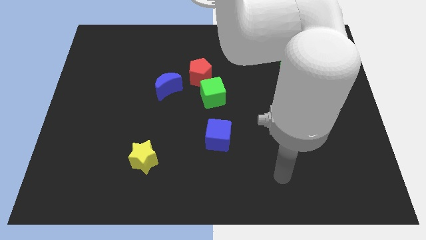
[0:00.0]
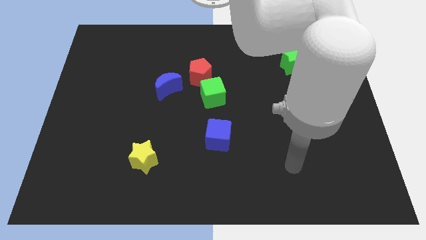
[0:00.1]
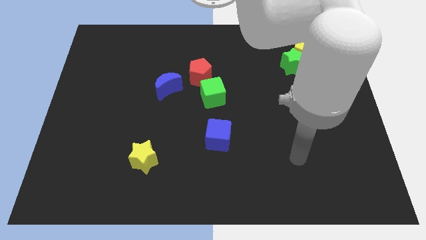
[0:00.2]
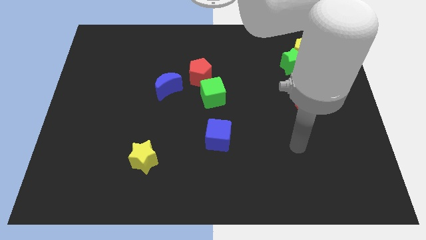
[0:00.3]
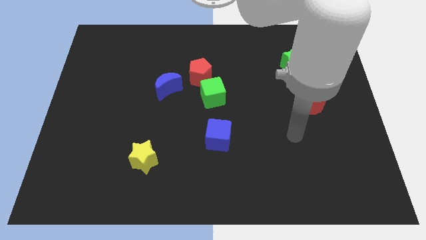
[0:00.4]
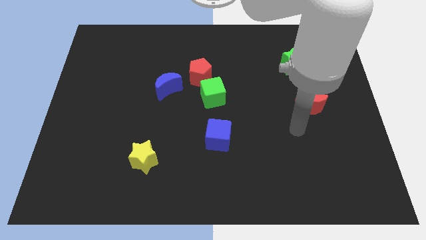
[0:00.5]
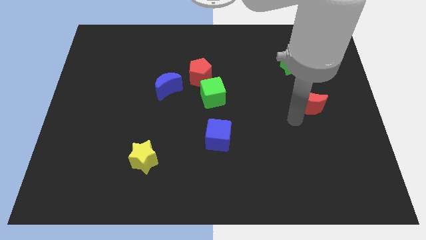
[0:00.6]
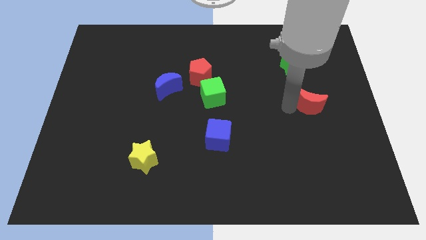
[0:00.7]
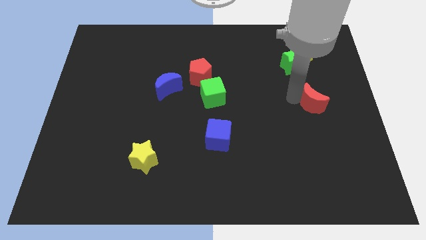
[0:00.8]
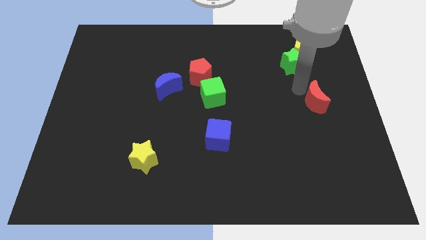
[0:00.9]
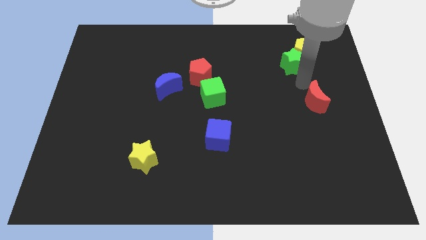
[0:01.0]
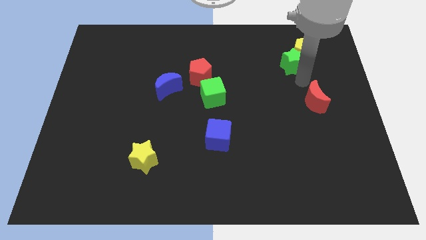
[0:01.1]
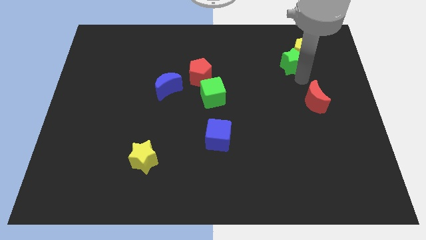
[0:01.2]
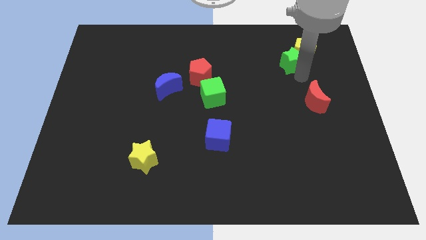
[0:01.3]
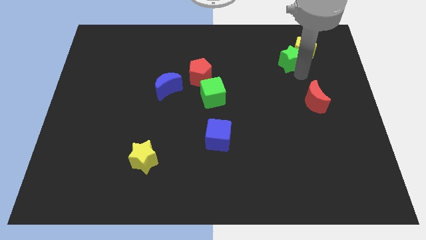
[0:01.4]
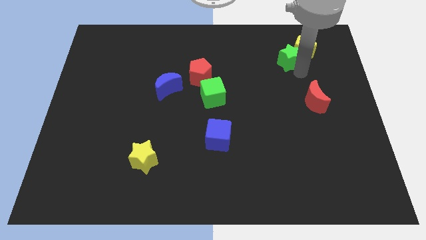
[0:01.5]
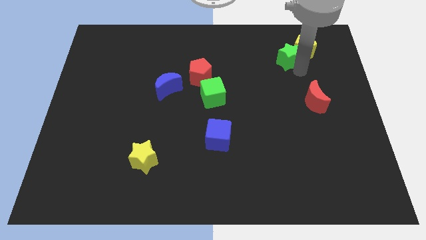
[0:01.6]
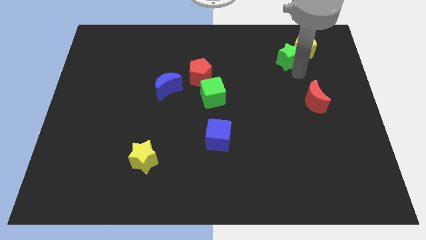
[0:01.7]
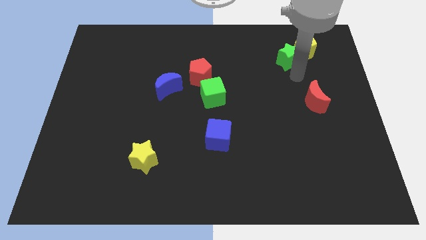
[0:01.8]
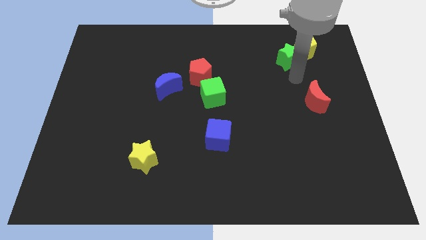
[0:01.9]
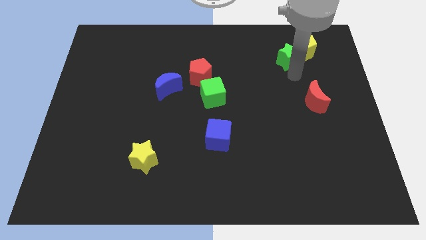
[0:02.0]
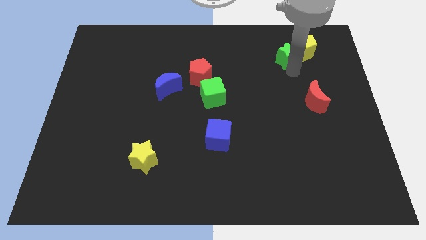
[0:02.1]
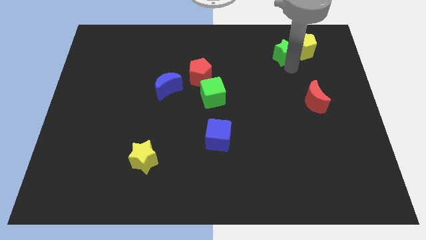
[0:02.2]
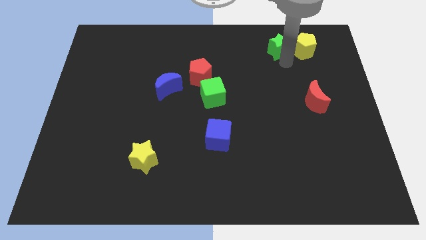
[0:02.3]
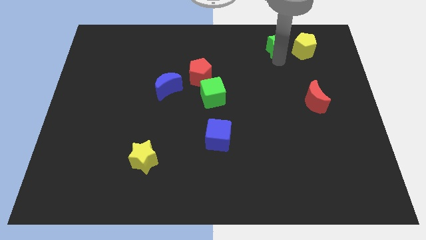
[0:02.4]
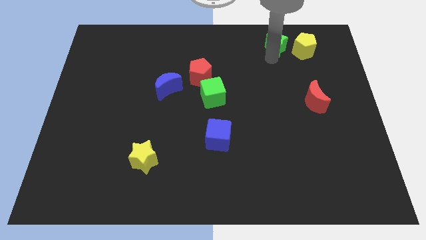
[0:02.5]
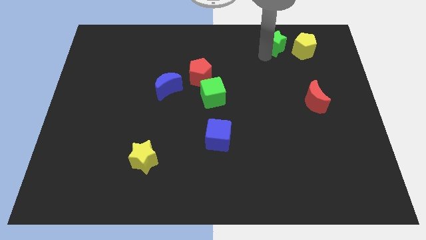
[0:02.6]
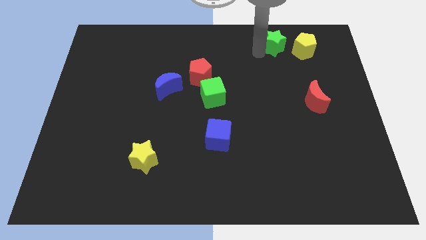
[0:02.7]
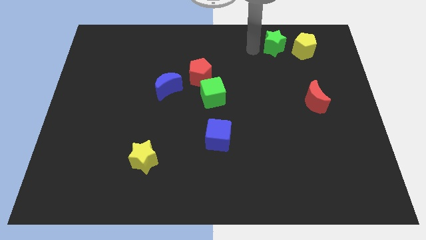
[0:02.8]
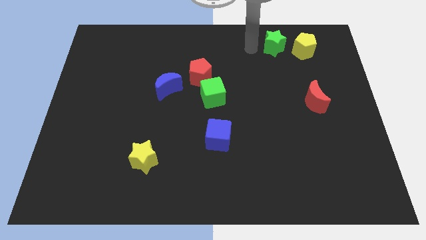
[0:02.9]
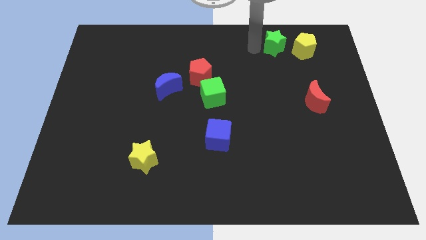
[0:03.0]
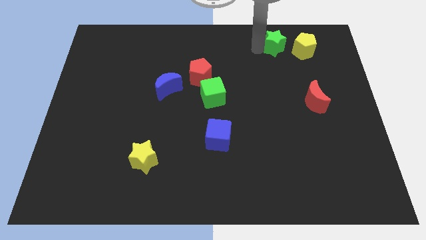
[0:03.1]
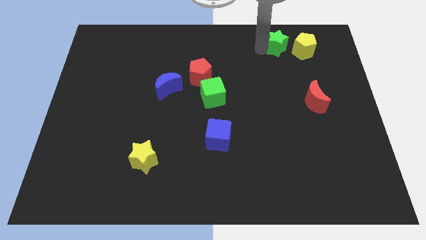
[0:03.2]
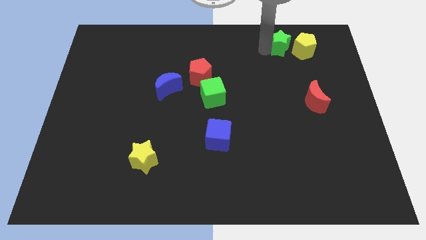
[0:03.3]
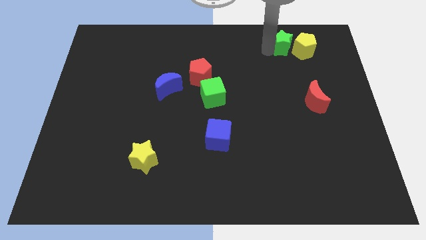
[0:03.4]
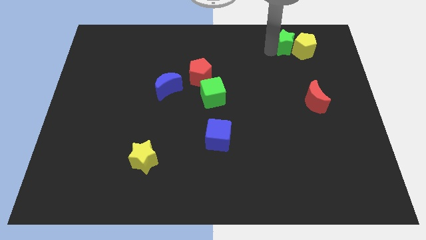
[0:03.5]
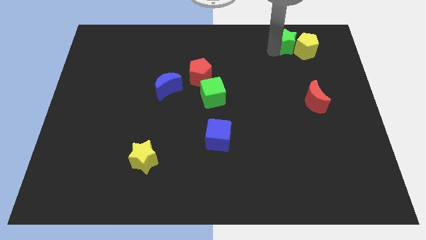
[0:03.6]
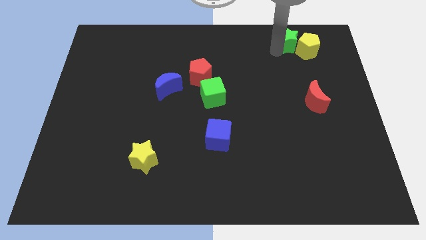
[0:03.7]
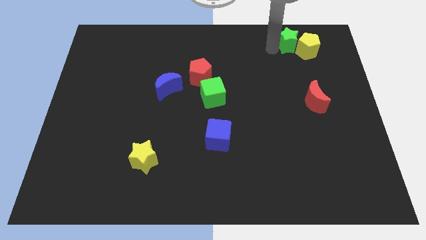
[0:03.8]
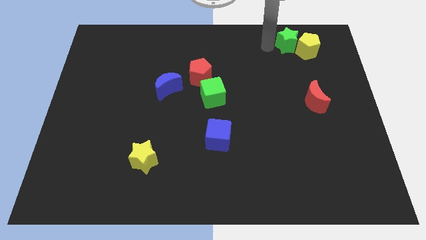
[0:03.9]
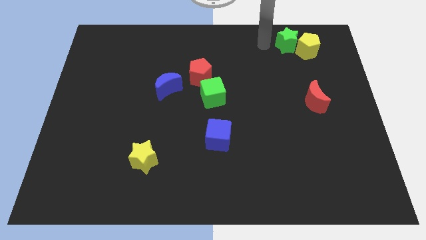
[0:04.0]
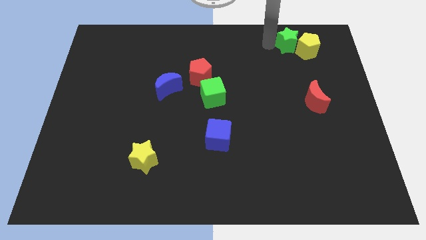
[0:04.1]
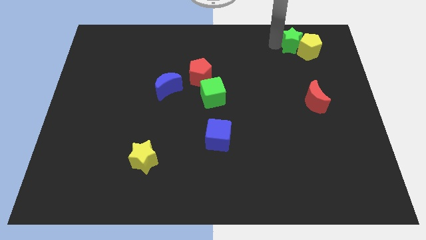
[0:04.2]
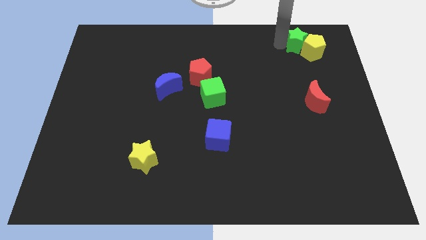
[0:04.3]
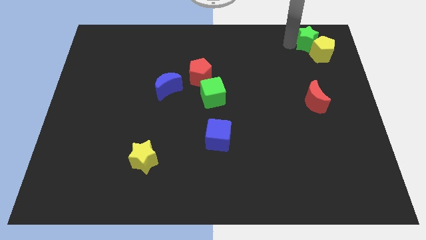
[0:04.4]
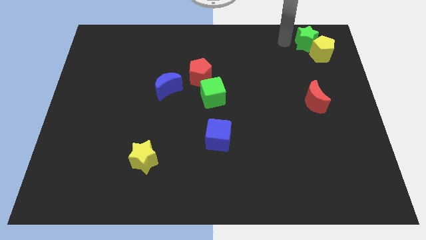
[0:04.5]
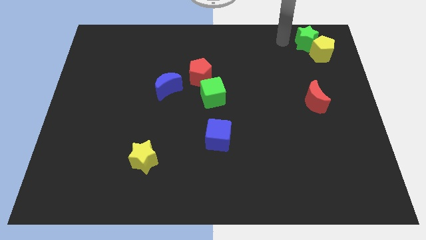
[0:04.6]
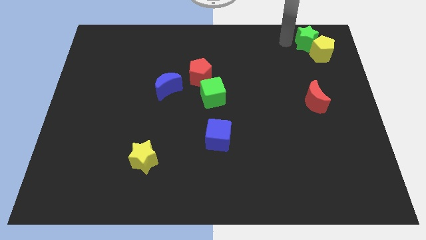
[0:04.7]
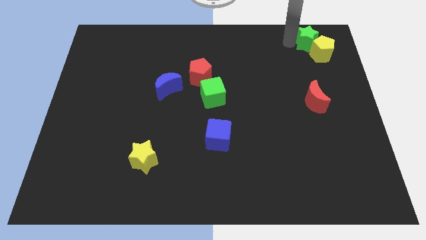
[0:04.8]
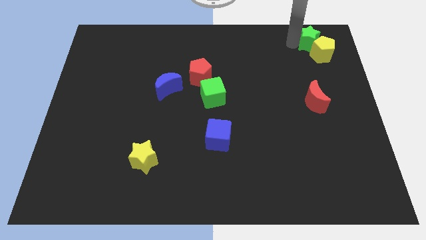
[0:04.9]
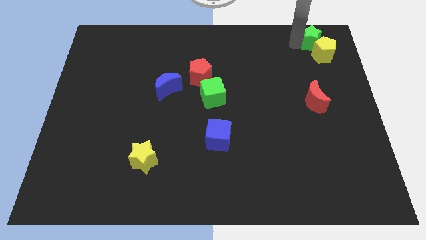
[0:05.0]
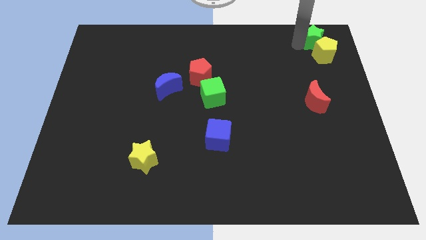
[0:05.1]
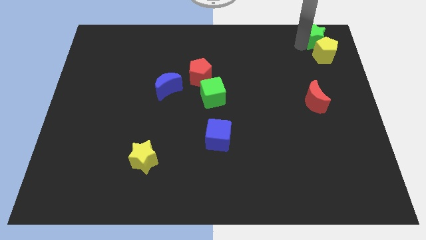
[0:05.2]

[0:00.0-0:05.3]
slide the green star to the top right of the board

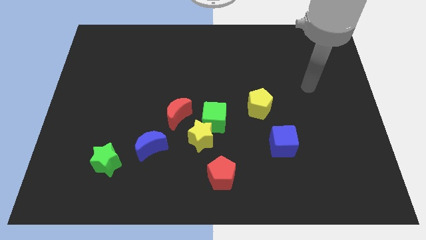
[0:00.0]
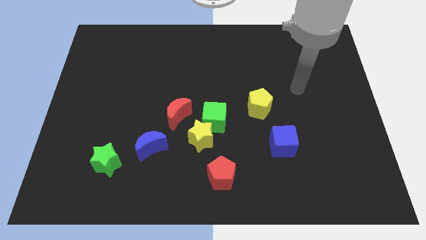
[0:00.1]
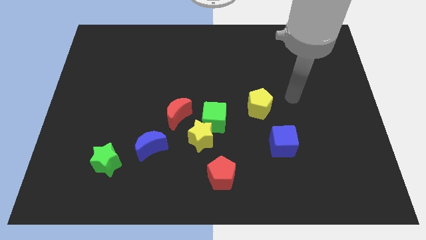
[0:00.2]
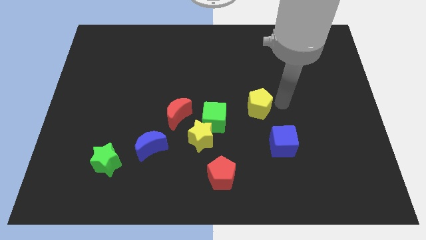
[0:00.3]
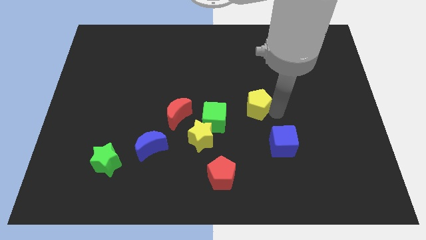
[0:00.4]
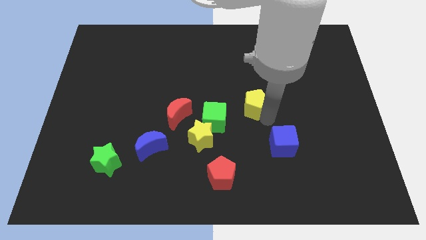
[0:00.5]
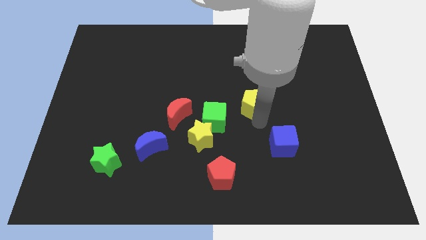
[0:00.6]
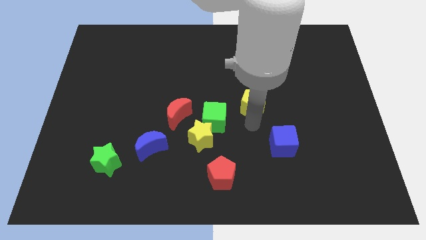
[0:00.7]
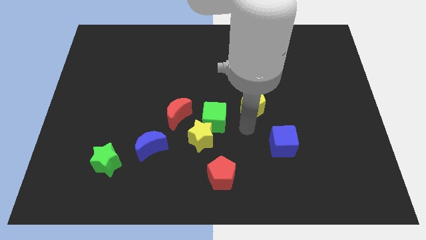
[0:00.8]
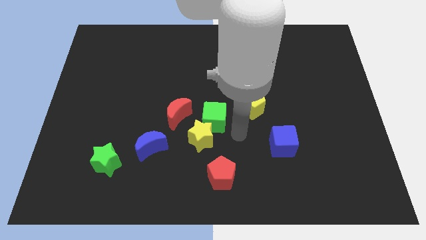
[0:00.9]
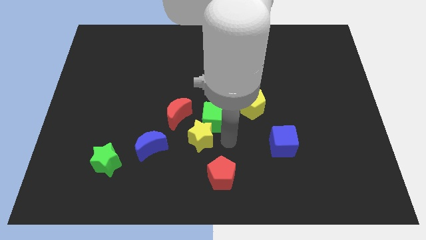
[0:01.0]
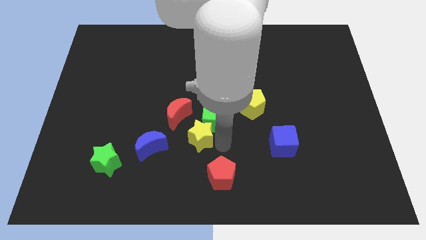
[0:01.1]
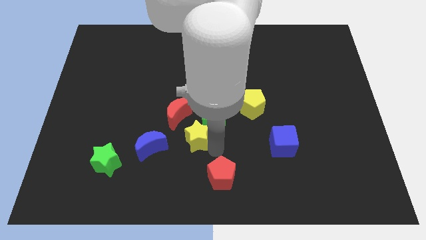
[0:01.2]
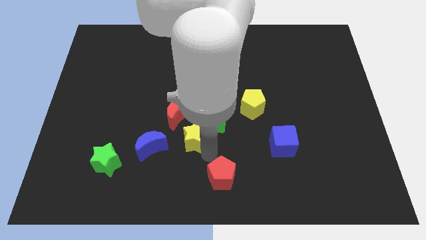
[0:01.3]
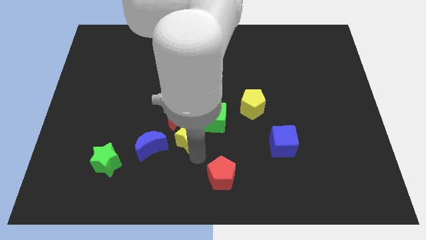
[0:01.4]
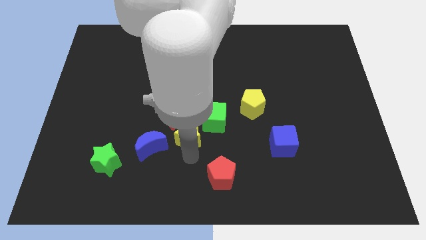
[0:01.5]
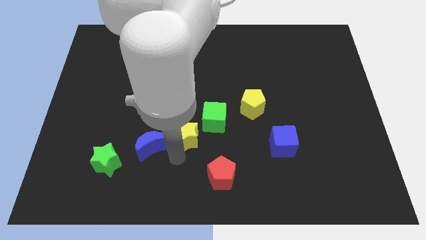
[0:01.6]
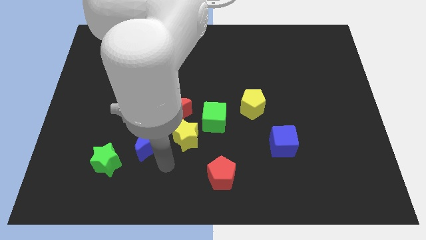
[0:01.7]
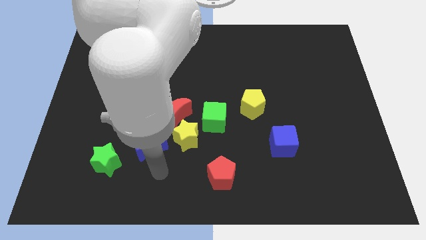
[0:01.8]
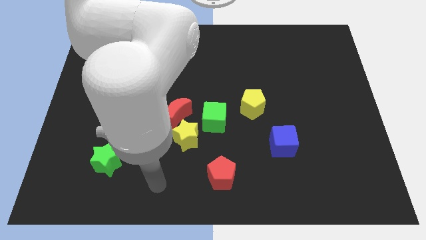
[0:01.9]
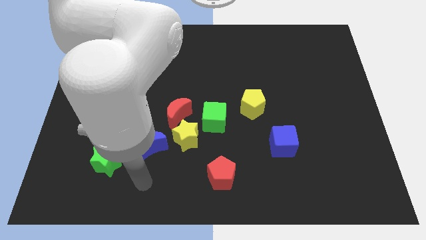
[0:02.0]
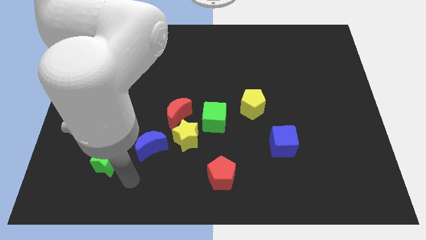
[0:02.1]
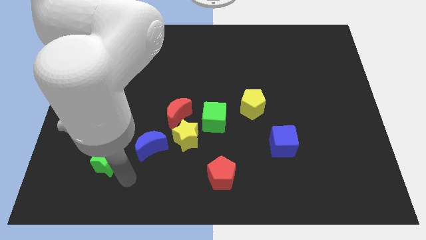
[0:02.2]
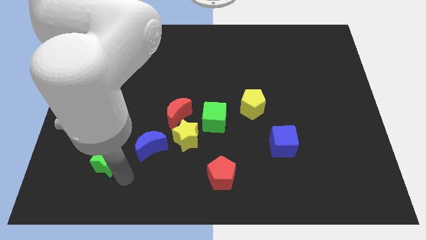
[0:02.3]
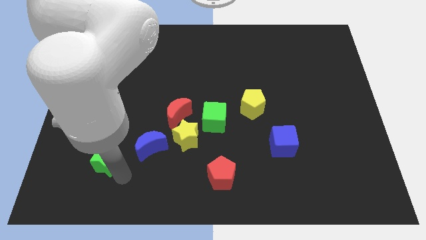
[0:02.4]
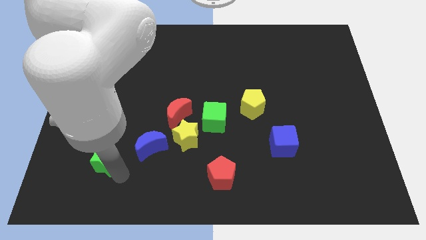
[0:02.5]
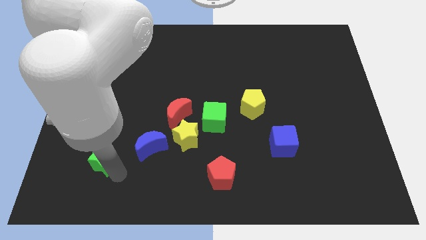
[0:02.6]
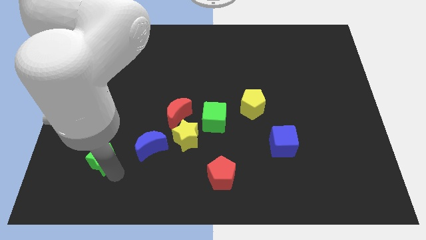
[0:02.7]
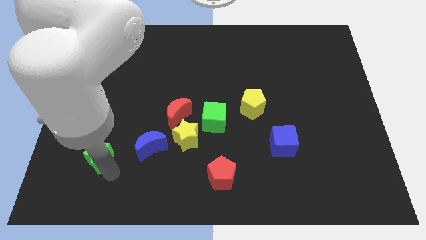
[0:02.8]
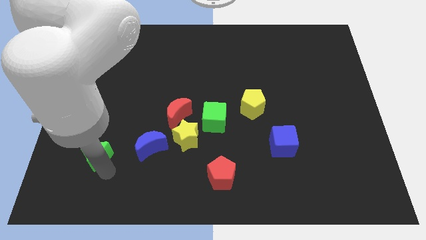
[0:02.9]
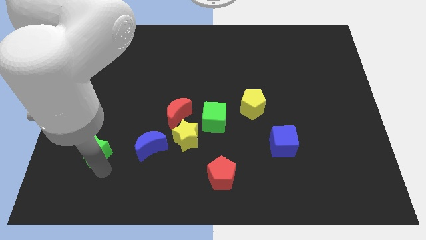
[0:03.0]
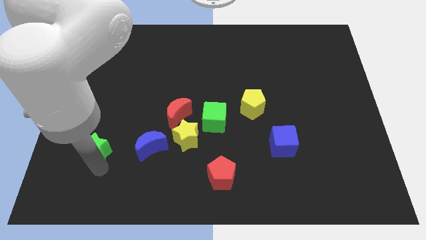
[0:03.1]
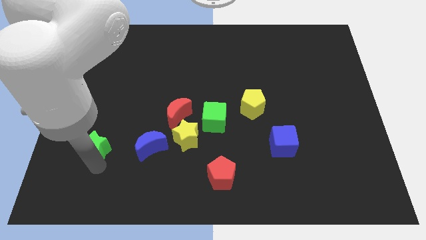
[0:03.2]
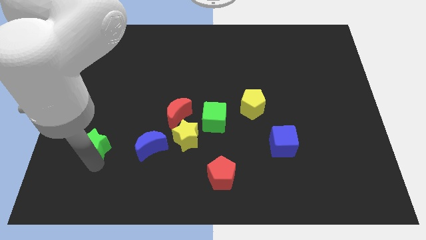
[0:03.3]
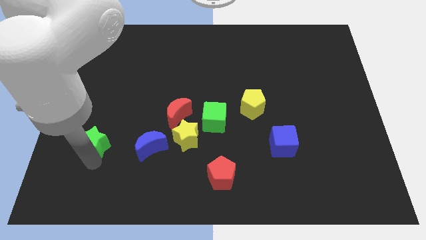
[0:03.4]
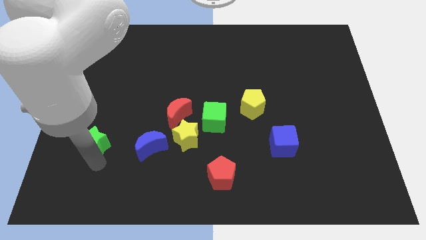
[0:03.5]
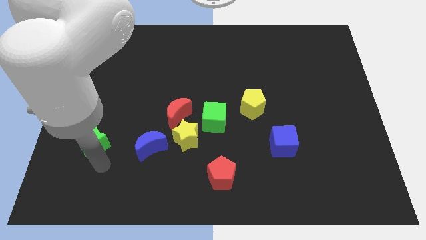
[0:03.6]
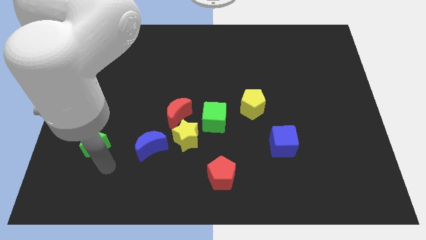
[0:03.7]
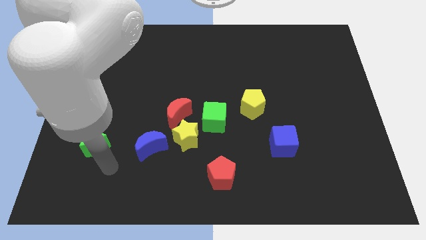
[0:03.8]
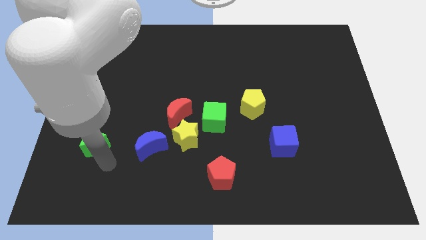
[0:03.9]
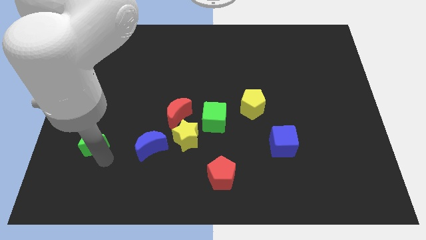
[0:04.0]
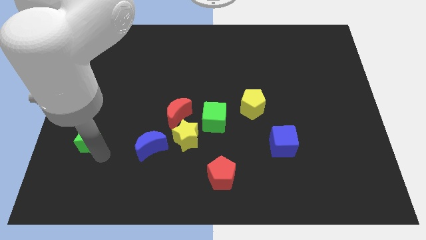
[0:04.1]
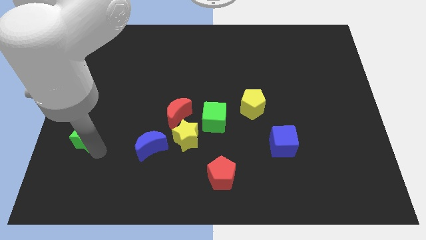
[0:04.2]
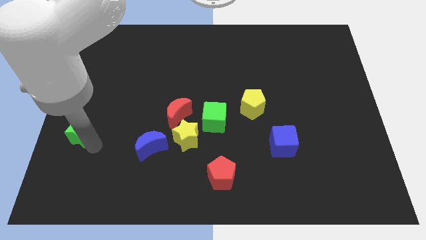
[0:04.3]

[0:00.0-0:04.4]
put the green star to the left side of the board
